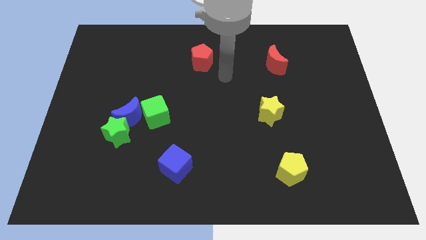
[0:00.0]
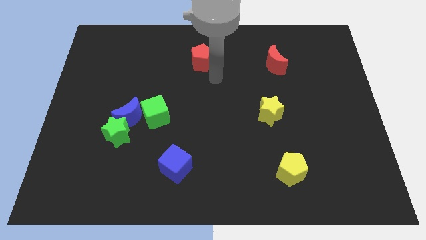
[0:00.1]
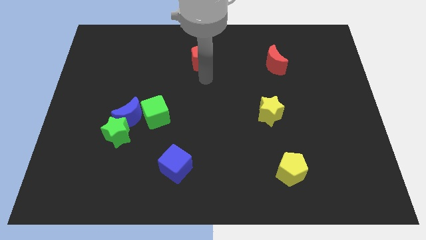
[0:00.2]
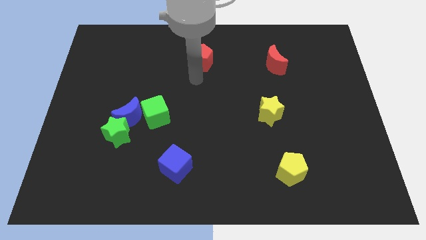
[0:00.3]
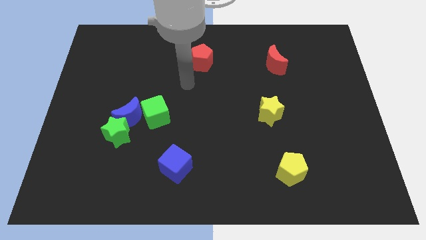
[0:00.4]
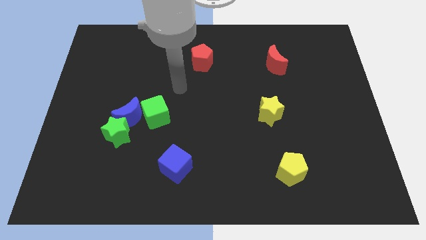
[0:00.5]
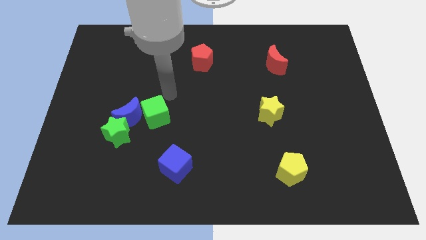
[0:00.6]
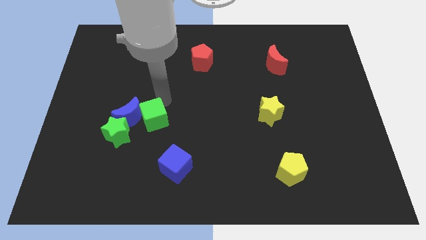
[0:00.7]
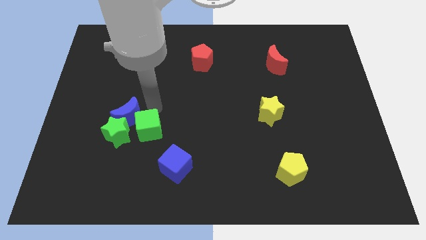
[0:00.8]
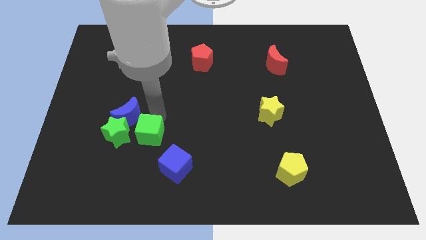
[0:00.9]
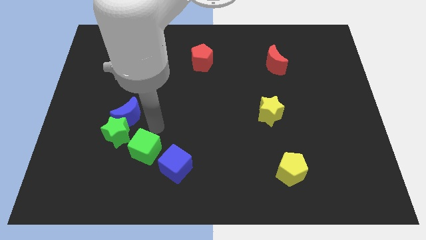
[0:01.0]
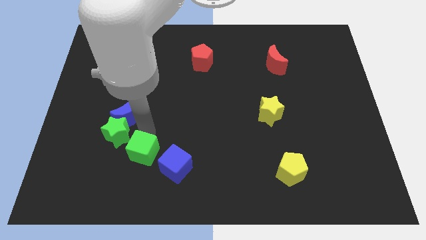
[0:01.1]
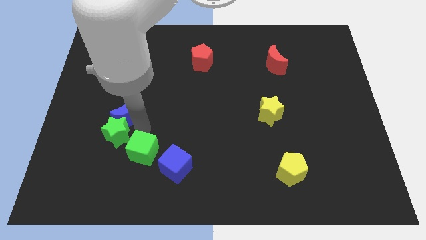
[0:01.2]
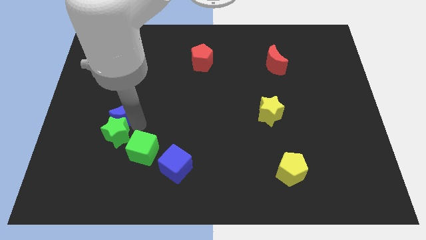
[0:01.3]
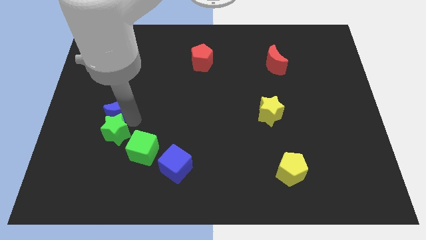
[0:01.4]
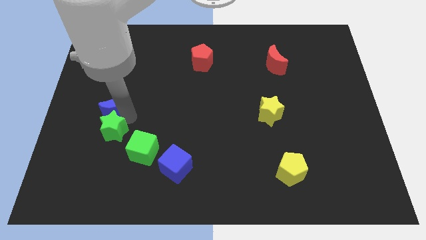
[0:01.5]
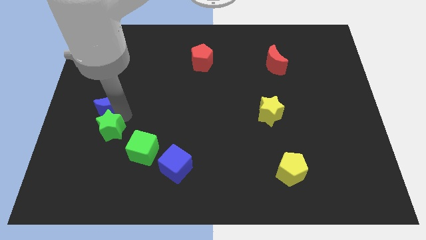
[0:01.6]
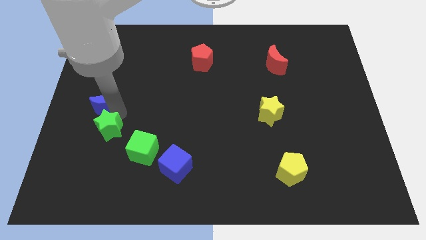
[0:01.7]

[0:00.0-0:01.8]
pull the blue moon apart from the green star and green cube

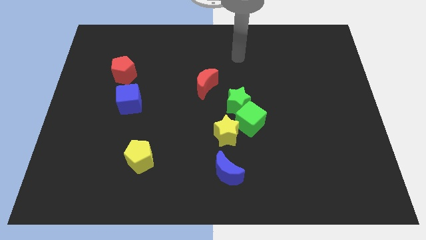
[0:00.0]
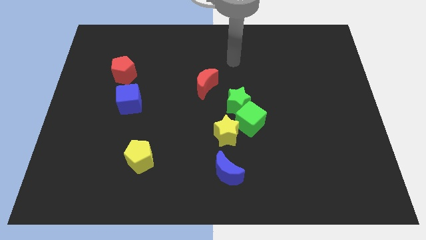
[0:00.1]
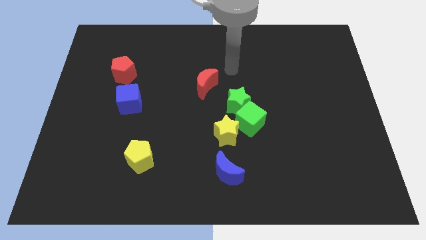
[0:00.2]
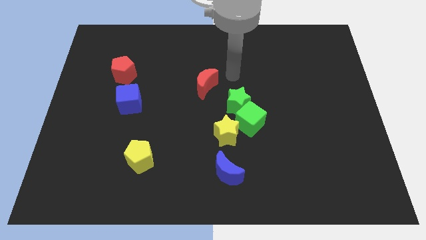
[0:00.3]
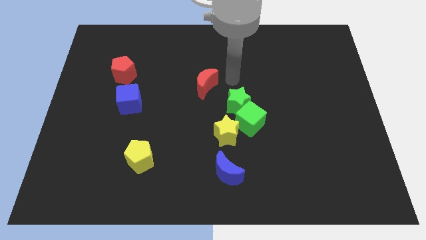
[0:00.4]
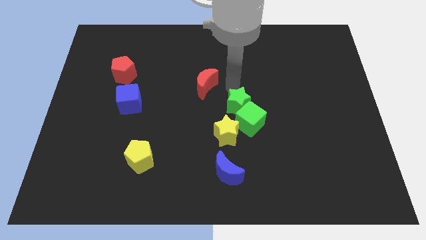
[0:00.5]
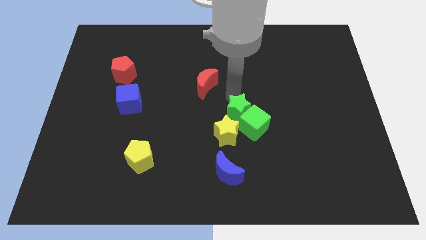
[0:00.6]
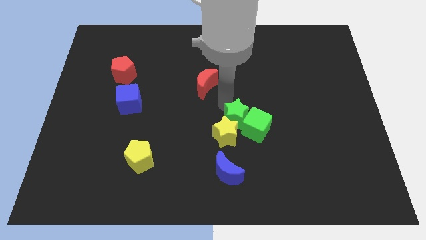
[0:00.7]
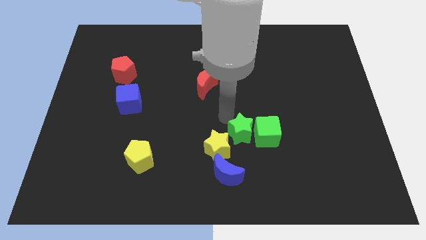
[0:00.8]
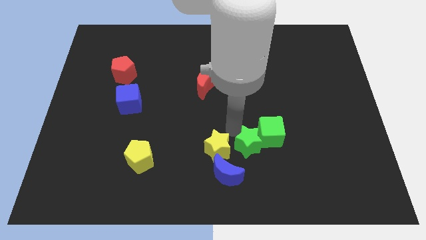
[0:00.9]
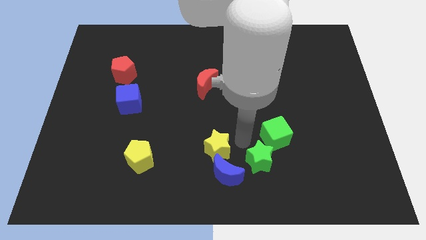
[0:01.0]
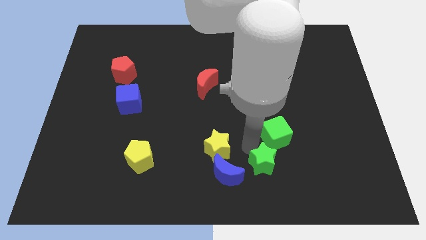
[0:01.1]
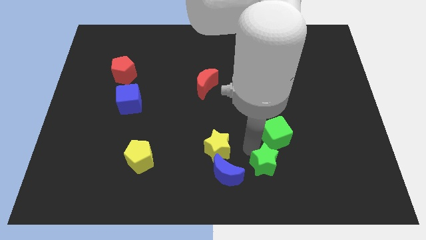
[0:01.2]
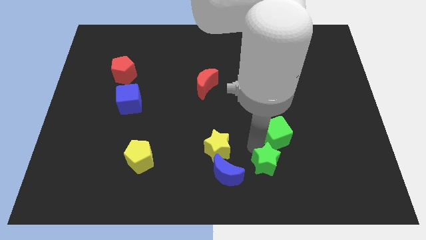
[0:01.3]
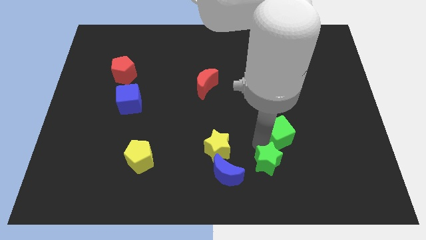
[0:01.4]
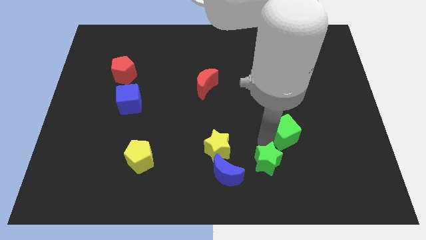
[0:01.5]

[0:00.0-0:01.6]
move the green cube away from the green star and yellow star

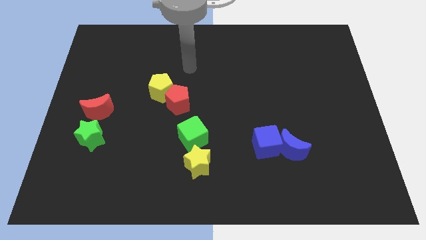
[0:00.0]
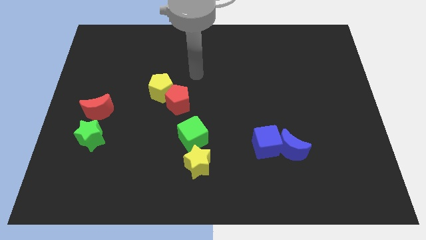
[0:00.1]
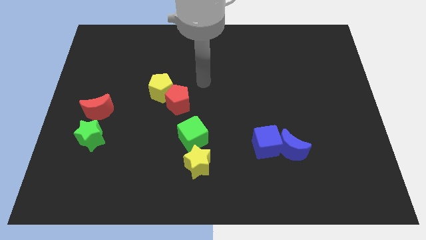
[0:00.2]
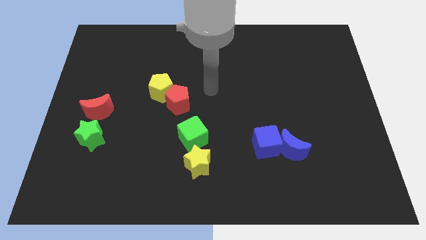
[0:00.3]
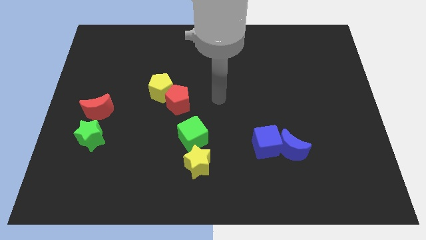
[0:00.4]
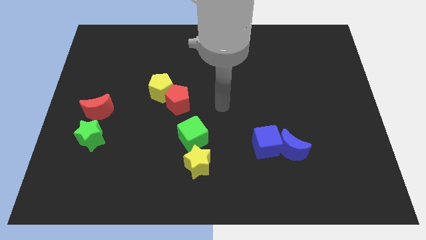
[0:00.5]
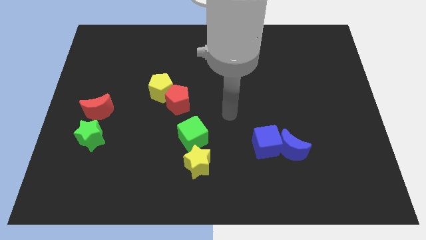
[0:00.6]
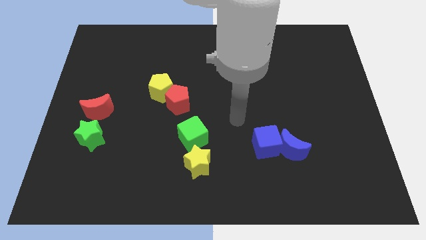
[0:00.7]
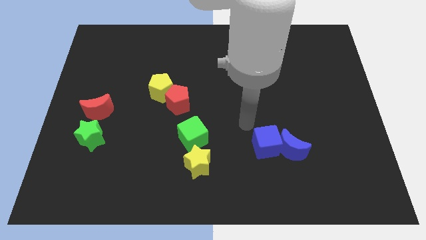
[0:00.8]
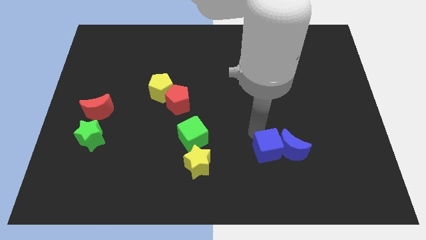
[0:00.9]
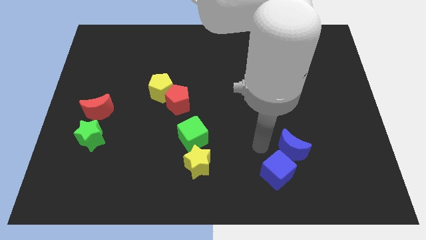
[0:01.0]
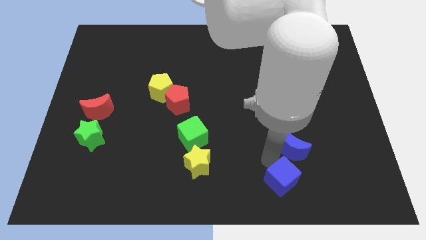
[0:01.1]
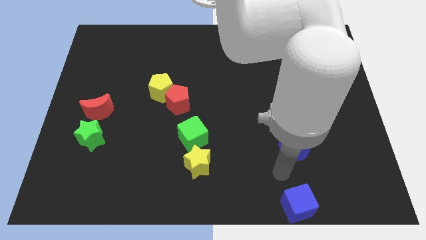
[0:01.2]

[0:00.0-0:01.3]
move the blue moon away from the blue cube

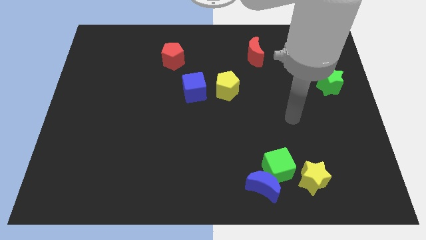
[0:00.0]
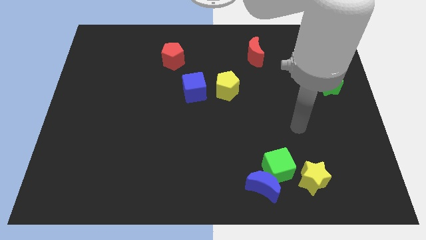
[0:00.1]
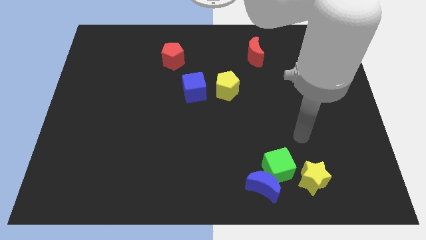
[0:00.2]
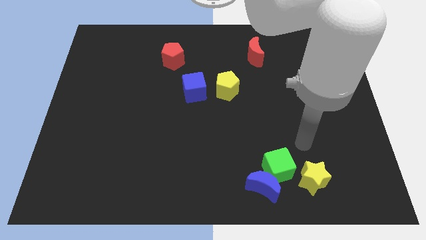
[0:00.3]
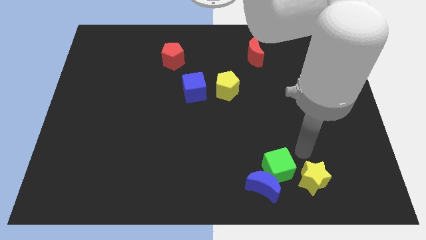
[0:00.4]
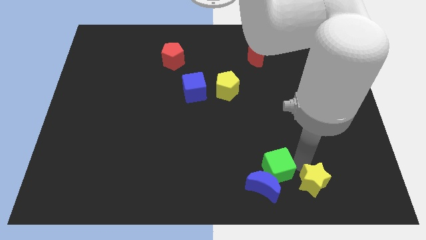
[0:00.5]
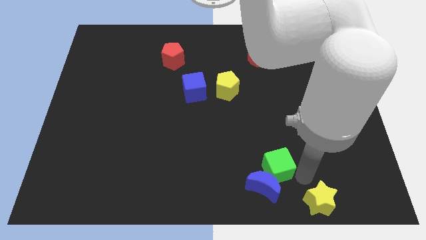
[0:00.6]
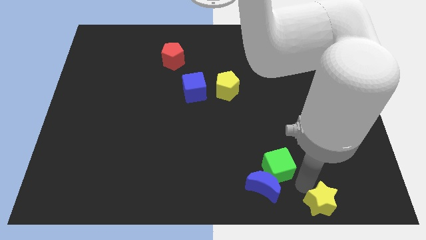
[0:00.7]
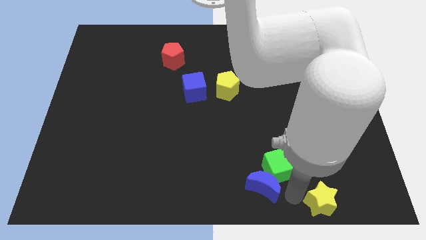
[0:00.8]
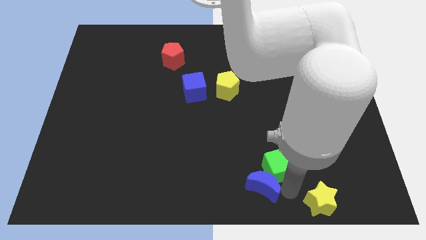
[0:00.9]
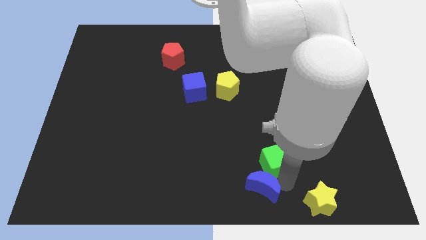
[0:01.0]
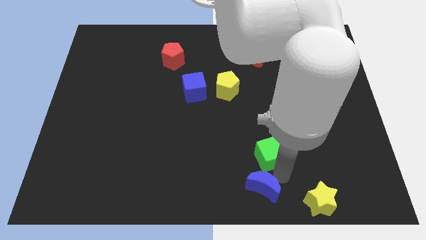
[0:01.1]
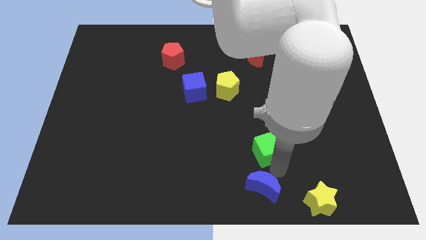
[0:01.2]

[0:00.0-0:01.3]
separate the green cube from the blue moon and yellow star

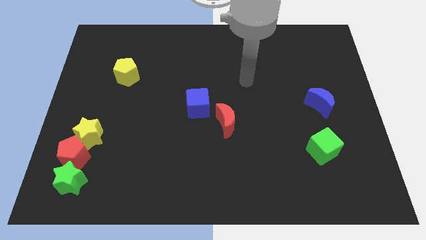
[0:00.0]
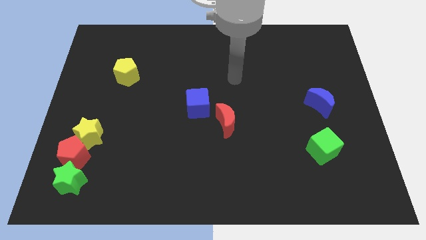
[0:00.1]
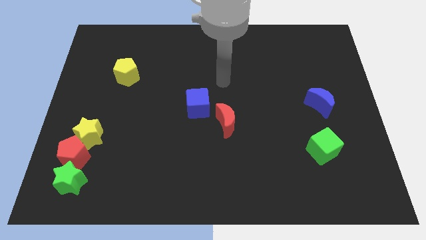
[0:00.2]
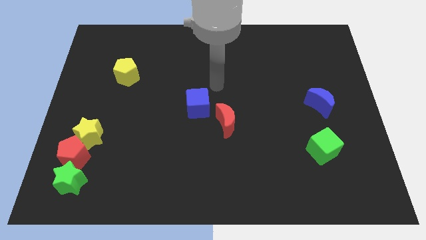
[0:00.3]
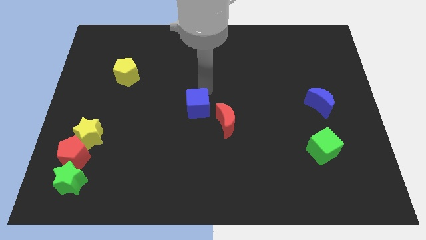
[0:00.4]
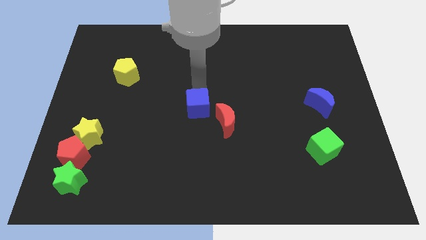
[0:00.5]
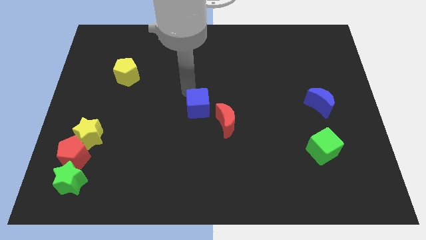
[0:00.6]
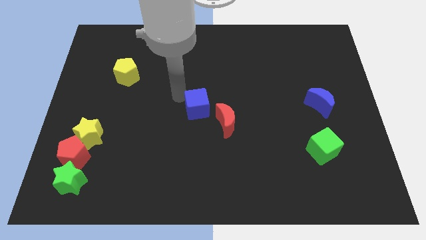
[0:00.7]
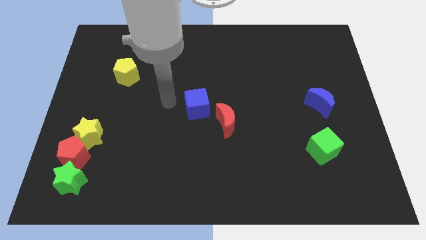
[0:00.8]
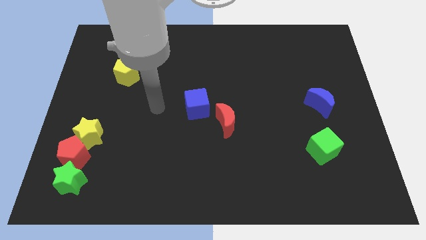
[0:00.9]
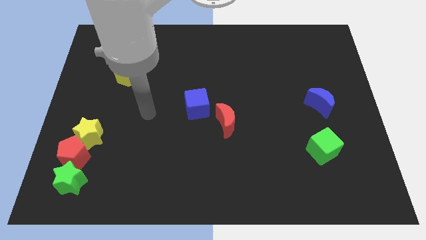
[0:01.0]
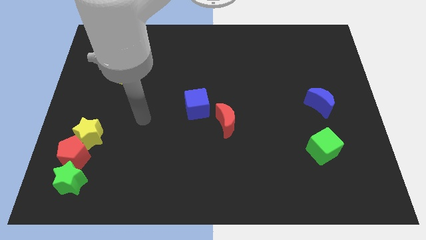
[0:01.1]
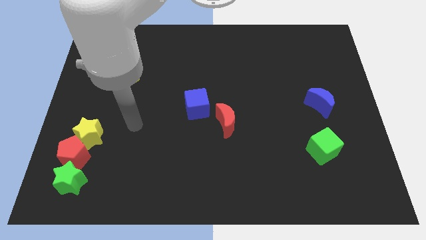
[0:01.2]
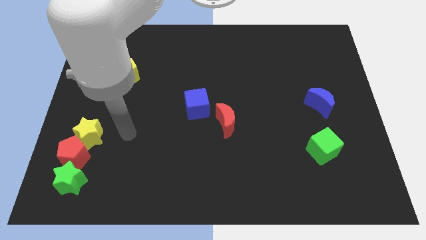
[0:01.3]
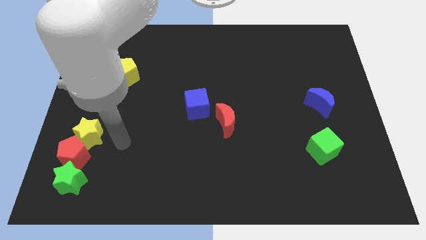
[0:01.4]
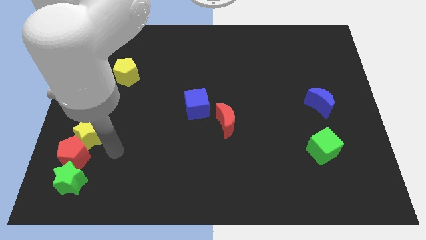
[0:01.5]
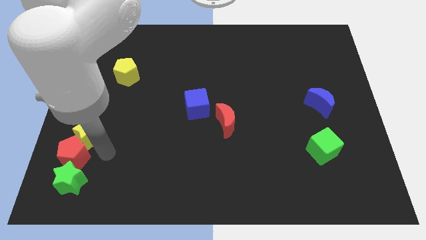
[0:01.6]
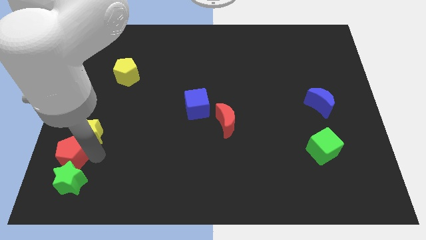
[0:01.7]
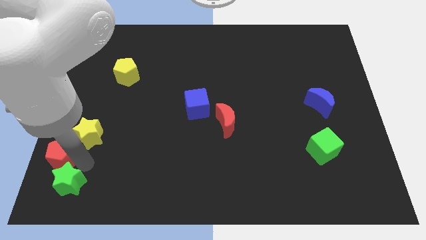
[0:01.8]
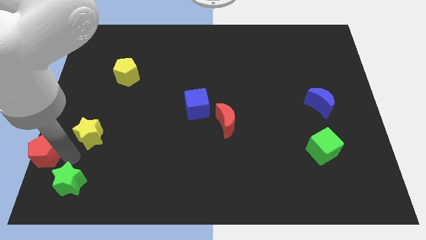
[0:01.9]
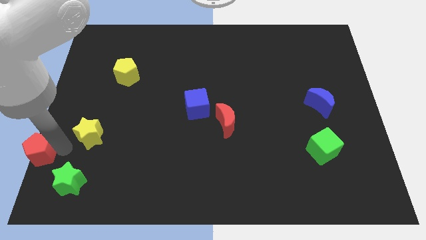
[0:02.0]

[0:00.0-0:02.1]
move the yellow star away from the red pentagon

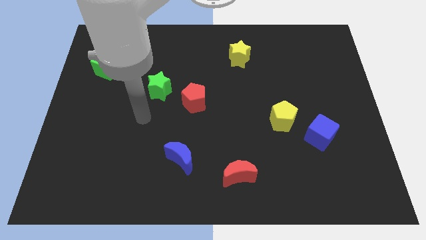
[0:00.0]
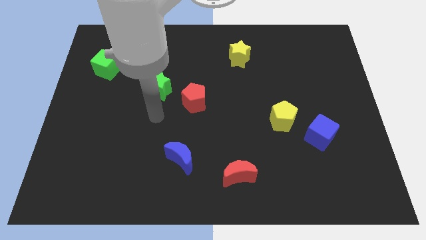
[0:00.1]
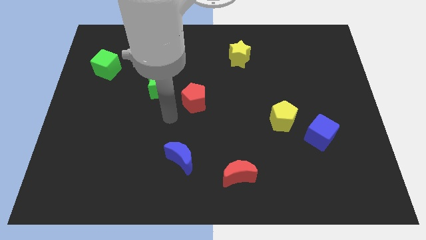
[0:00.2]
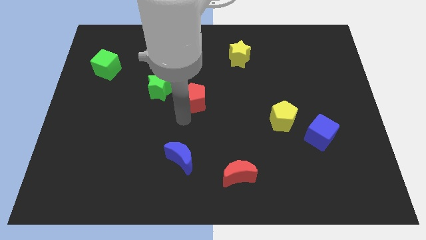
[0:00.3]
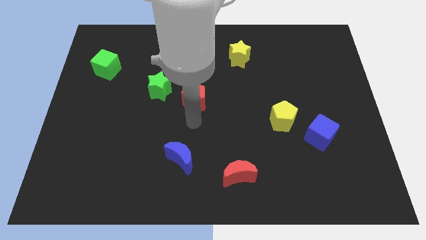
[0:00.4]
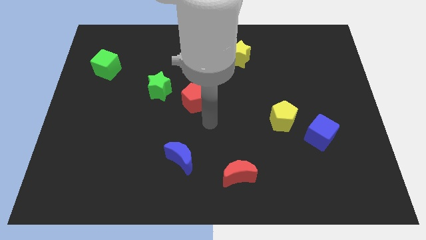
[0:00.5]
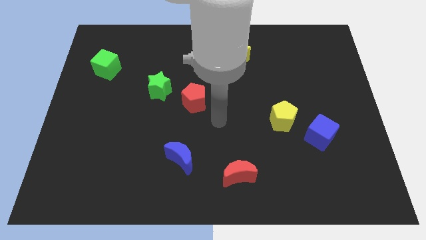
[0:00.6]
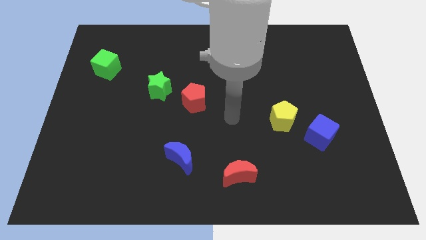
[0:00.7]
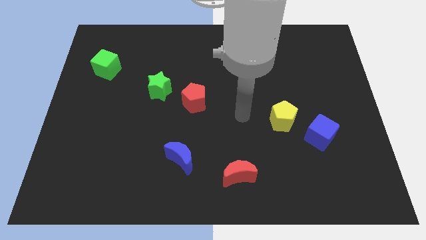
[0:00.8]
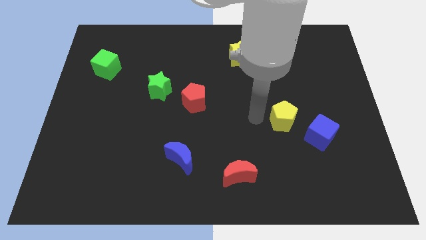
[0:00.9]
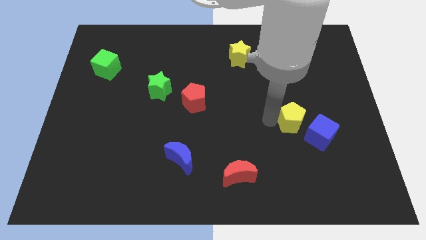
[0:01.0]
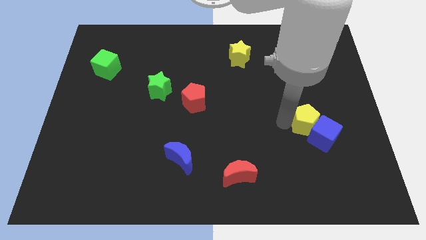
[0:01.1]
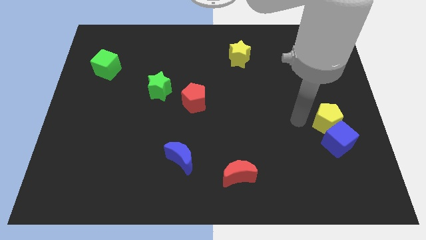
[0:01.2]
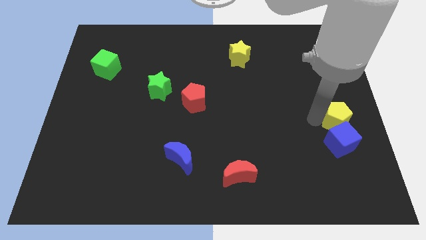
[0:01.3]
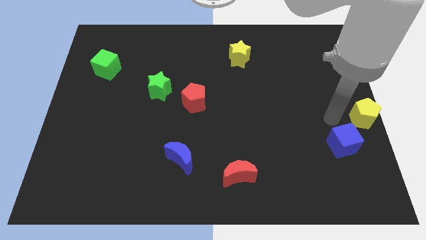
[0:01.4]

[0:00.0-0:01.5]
pull the blue cube apart from the yellow pentagon
